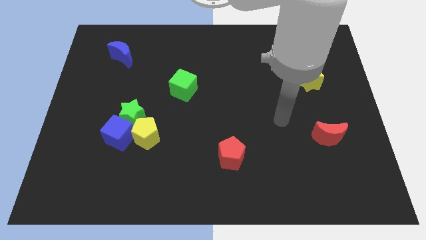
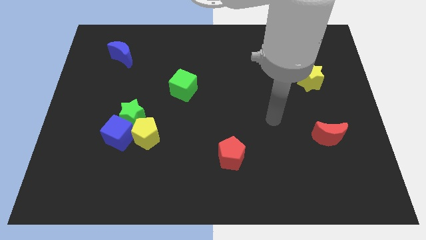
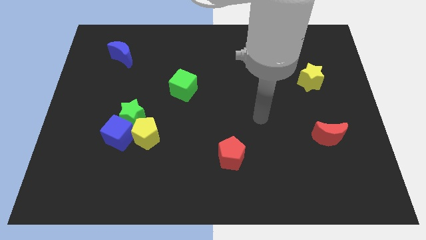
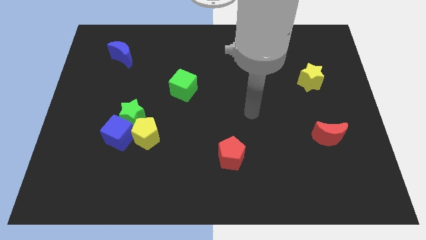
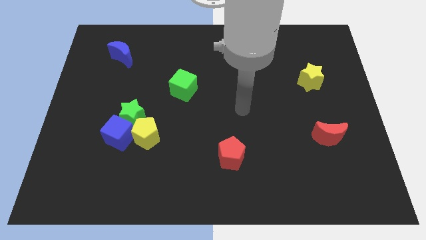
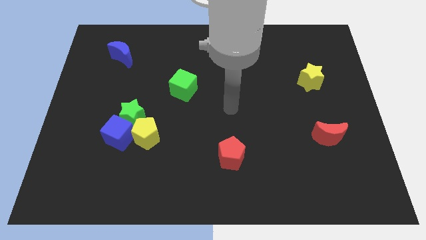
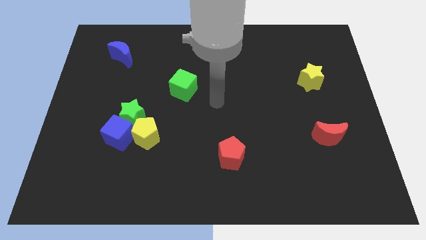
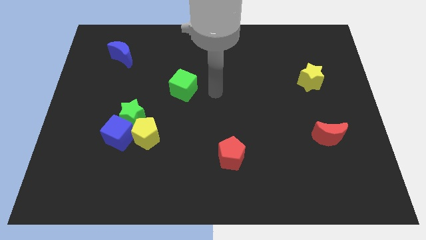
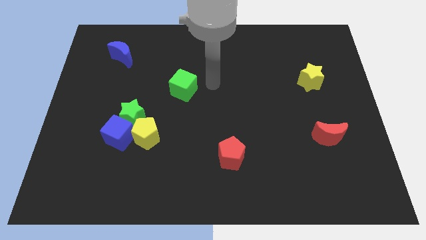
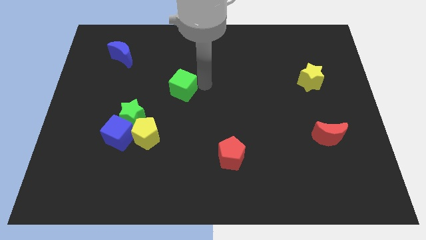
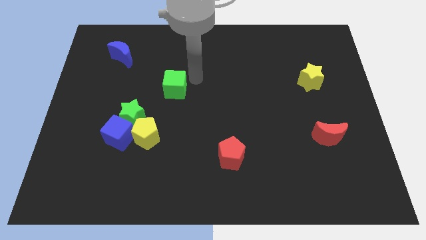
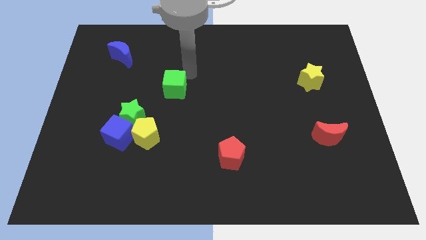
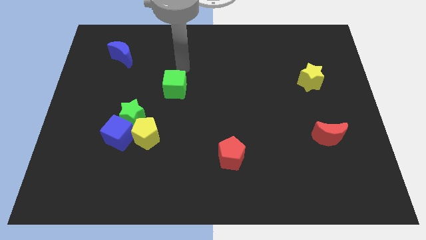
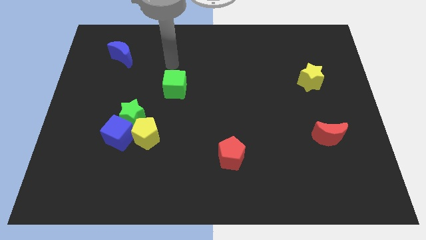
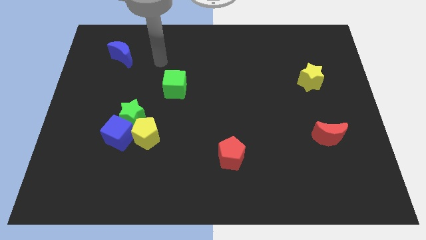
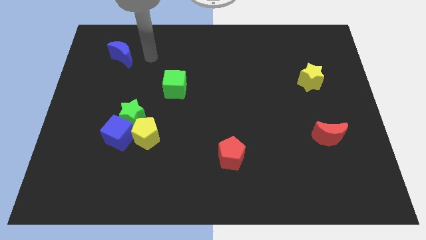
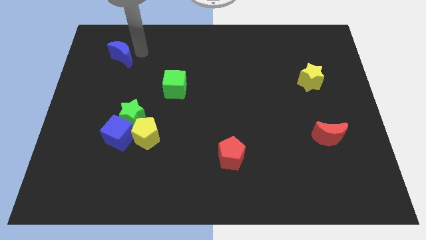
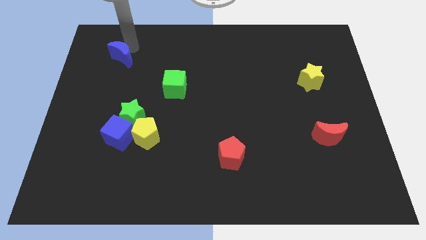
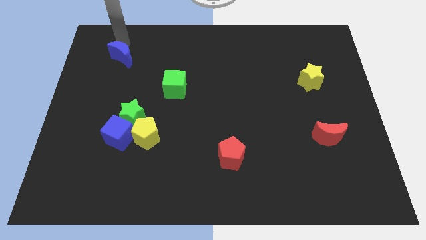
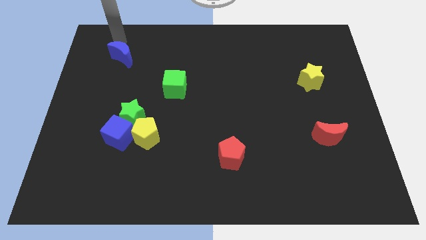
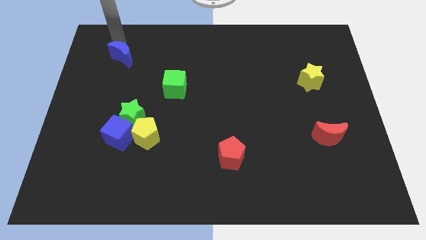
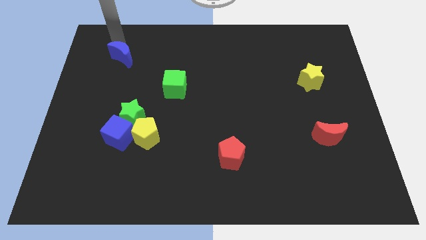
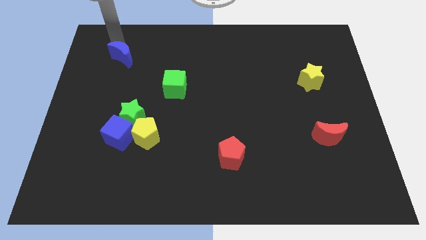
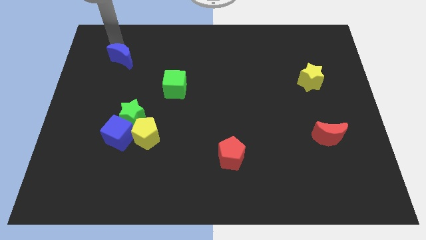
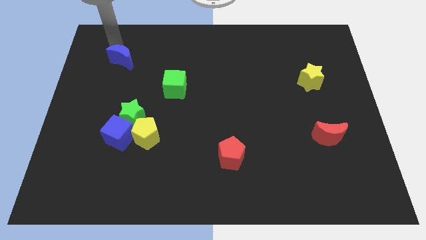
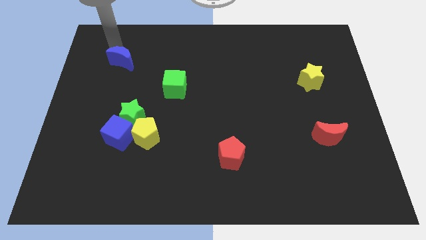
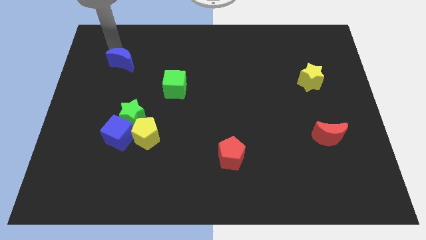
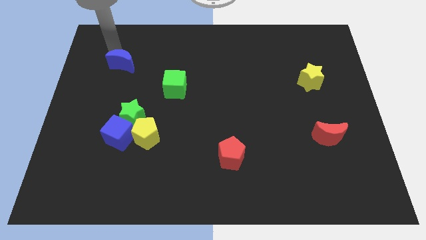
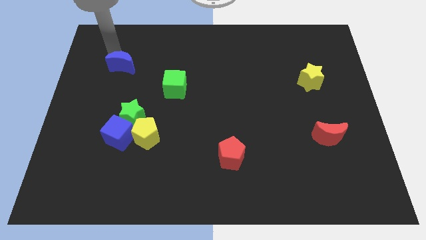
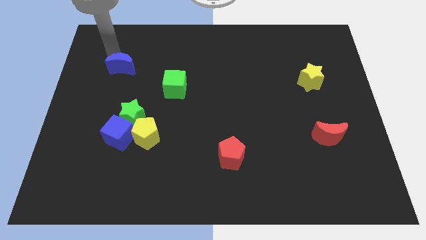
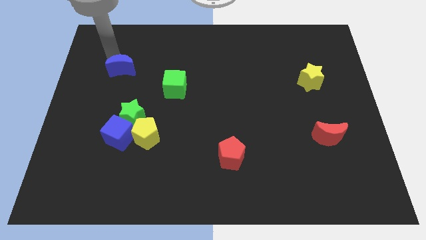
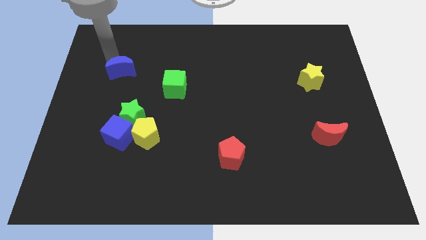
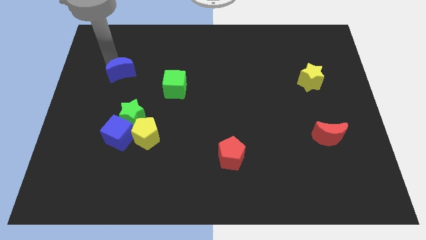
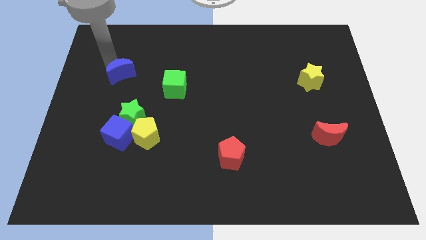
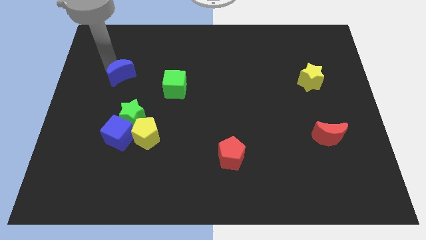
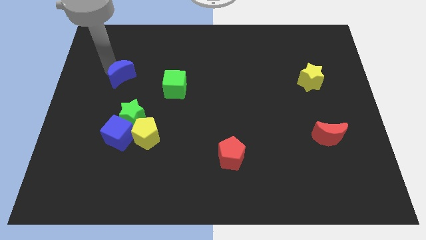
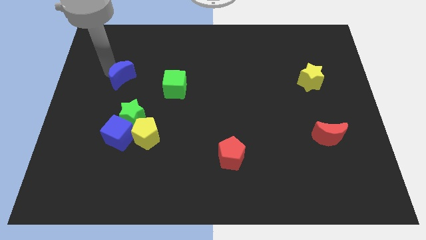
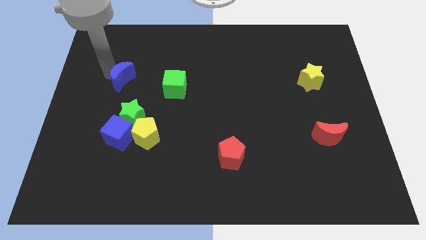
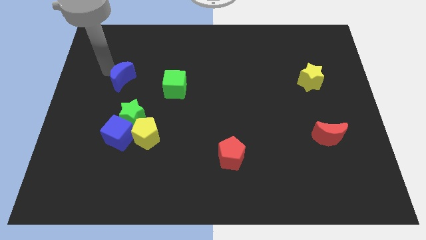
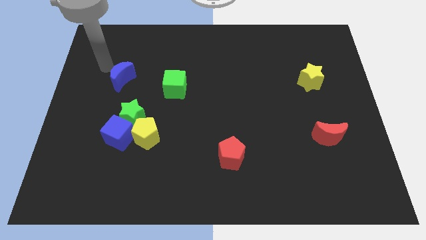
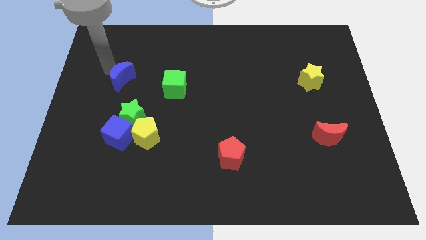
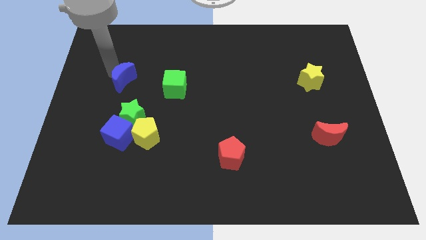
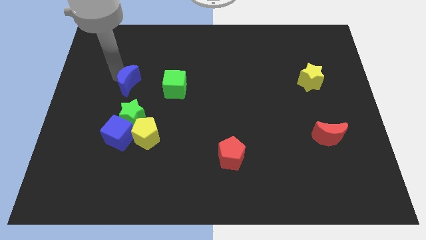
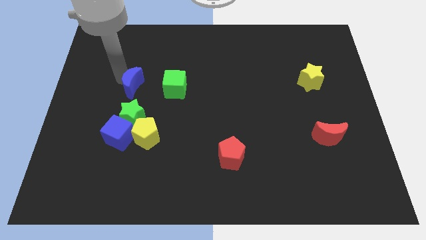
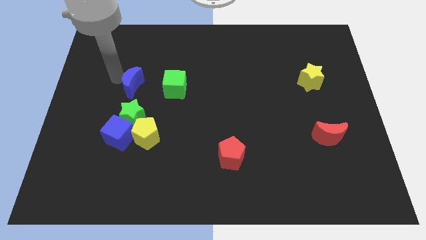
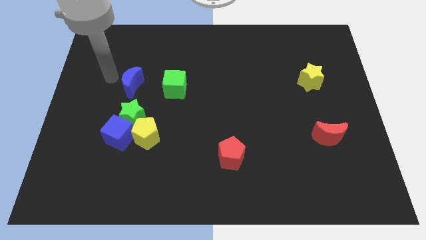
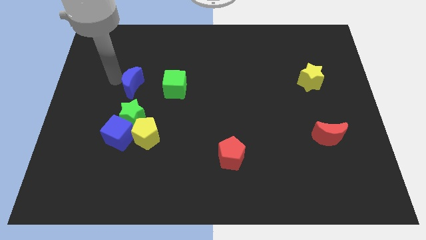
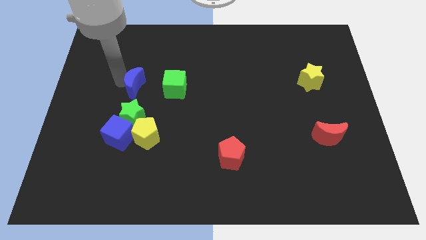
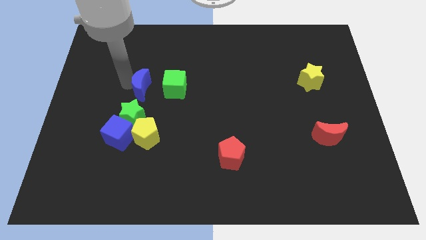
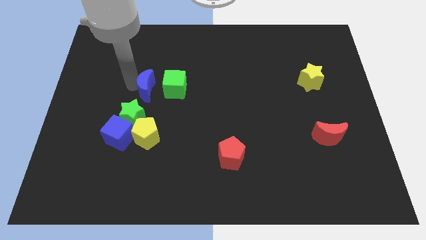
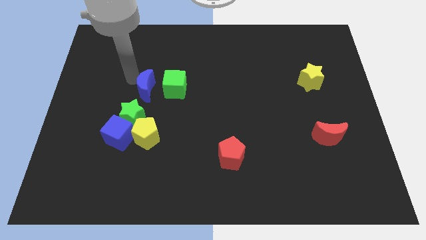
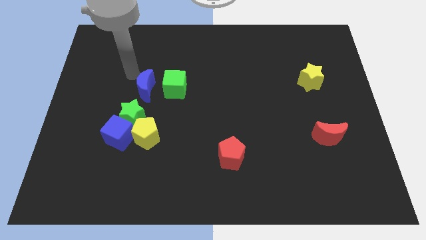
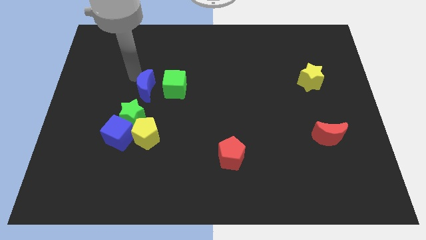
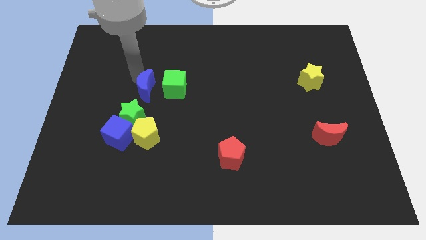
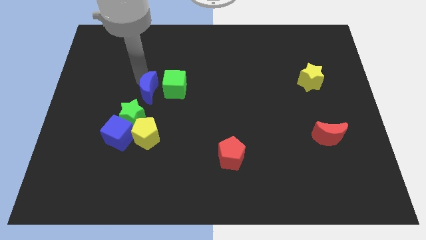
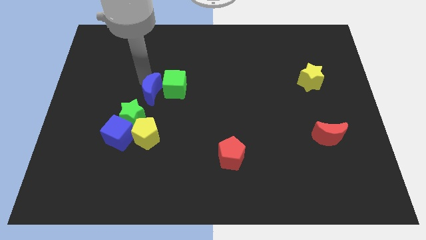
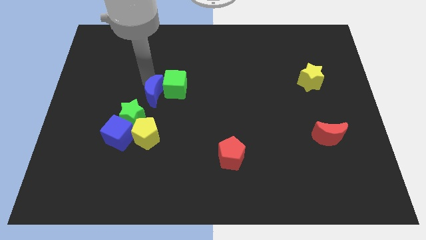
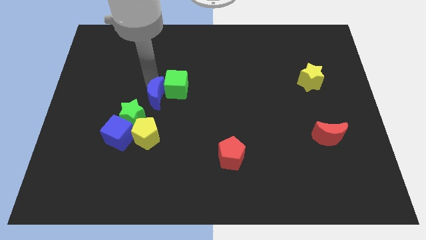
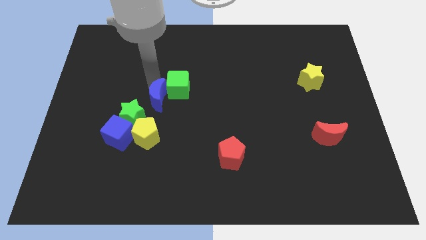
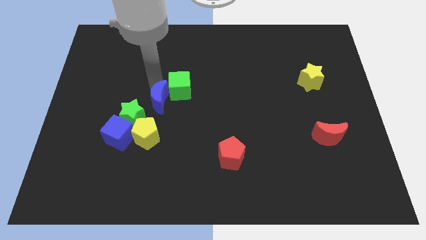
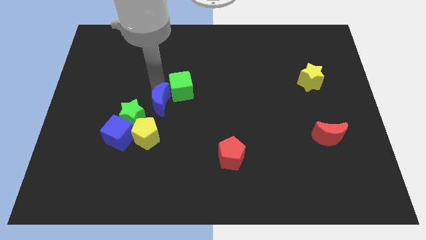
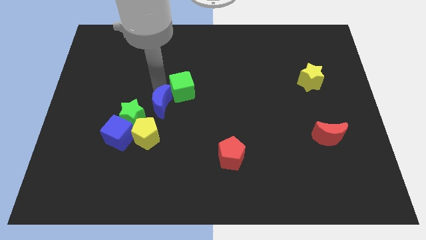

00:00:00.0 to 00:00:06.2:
slide the blue moon diagonally up and to the right of the yellow pentagon

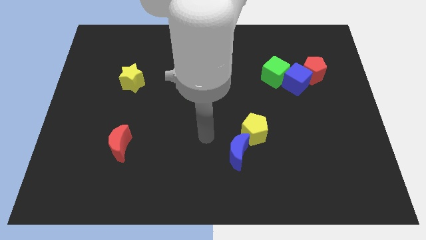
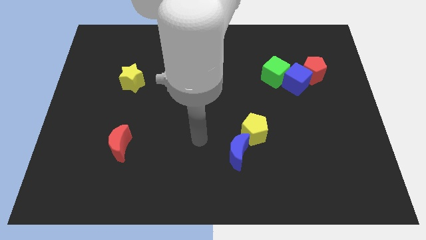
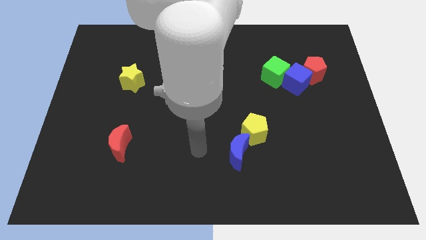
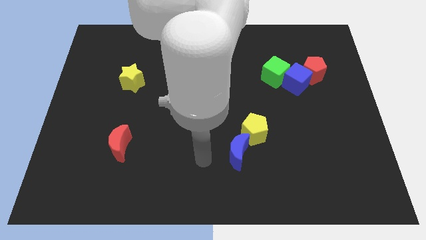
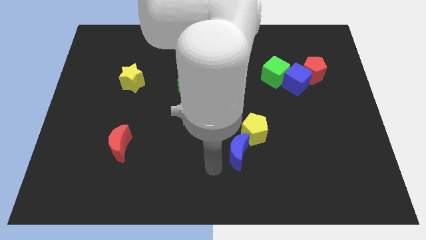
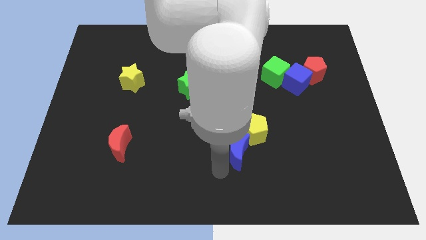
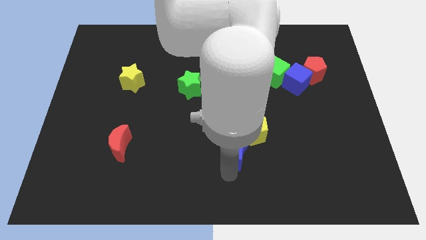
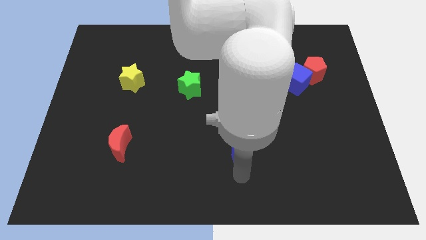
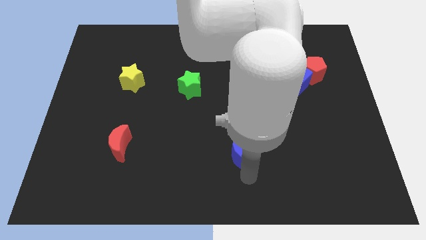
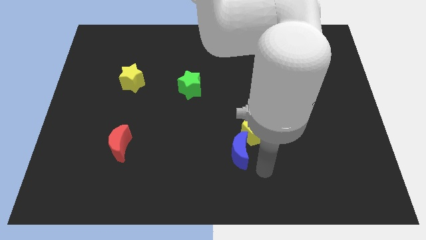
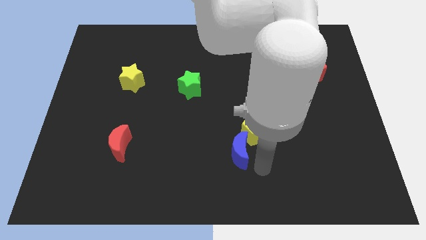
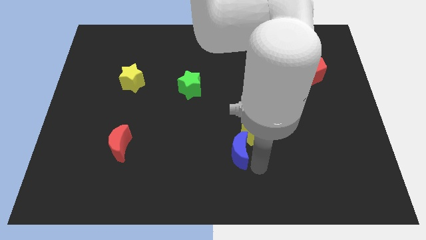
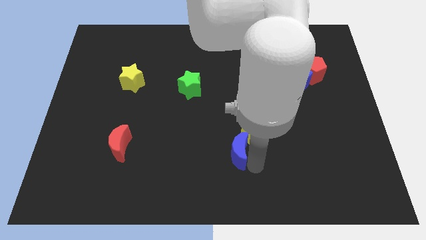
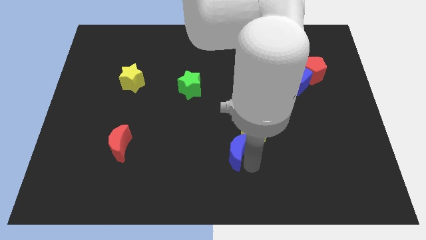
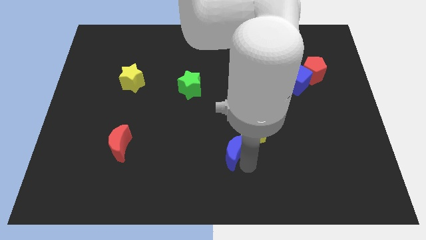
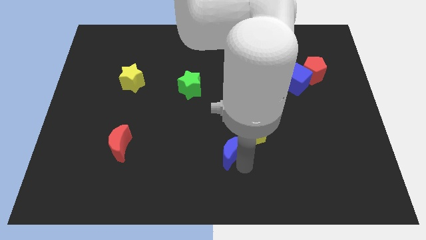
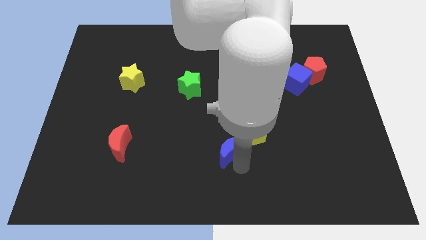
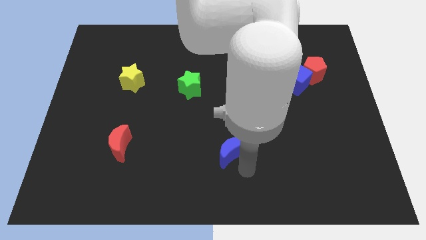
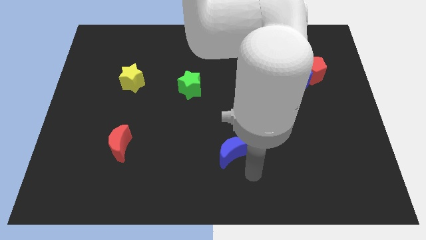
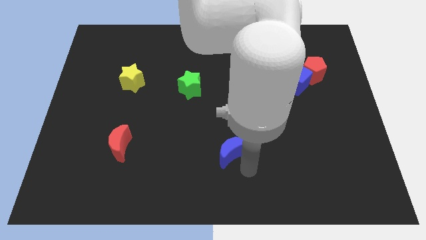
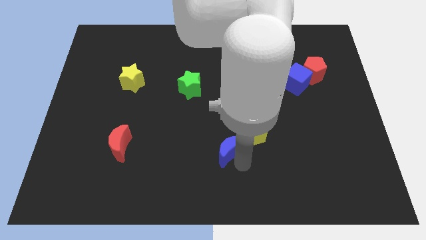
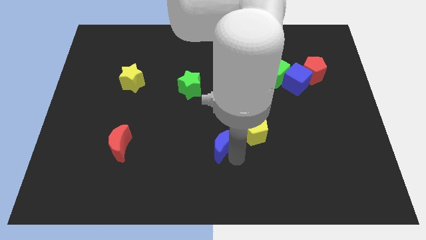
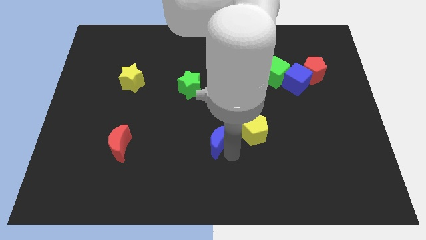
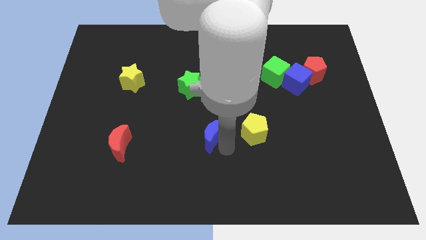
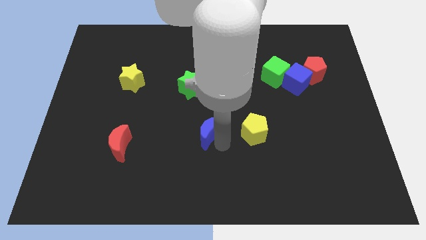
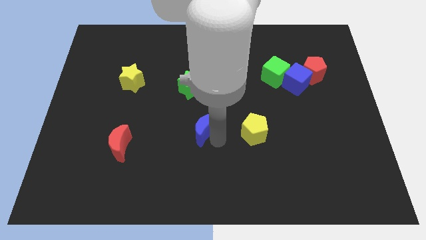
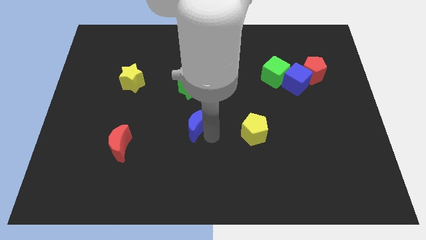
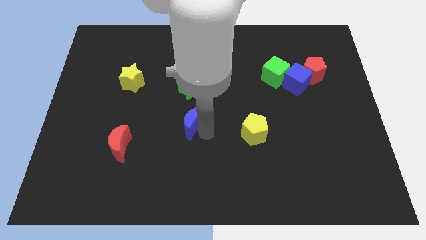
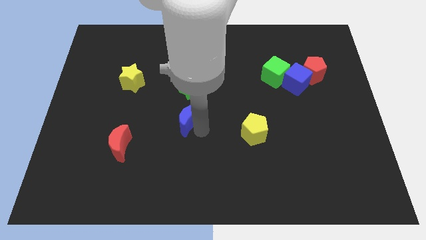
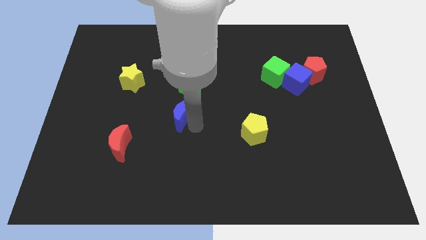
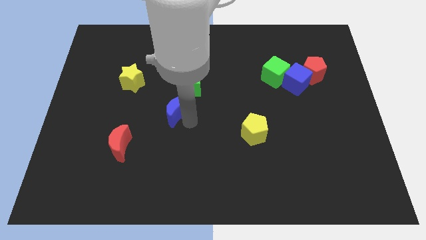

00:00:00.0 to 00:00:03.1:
slide the blue moon to the bottom left side of the green star
